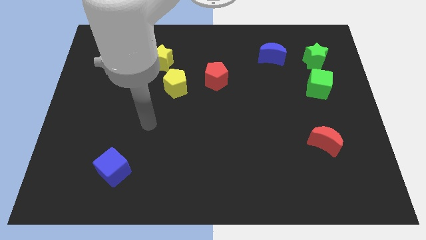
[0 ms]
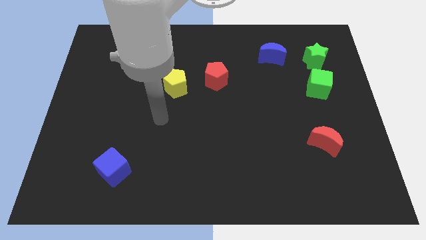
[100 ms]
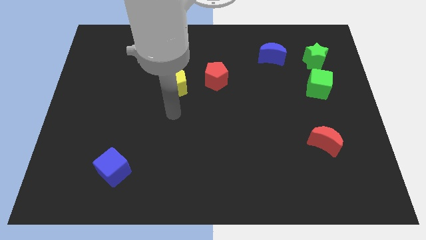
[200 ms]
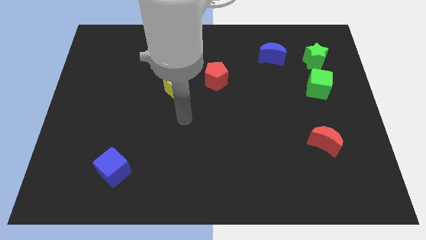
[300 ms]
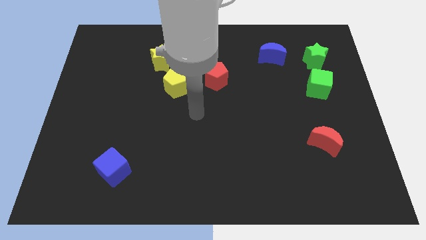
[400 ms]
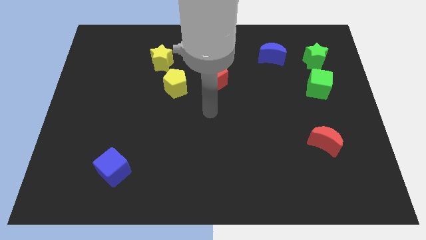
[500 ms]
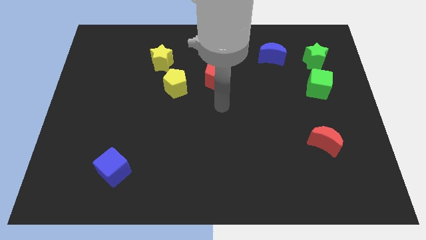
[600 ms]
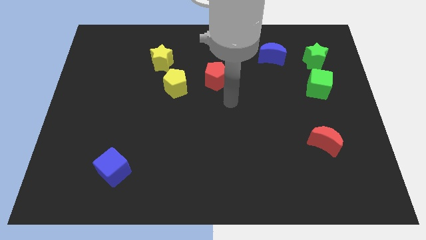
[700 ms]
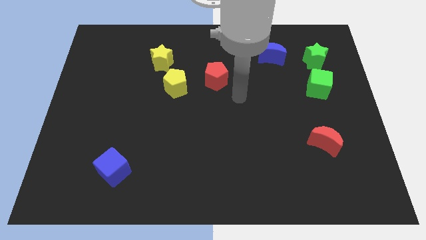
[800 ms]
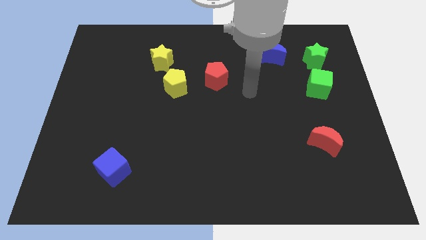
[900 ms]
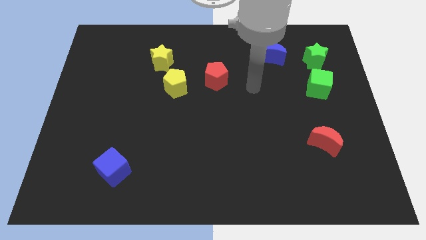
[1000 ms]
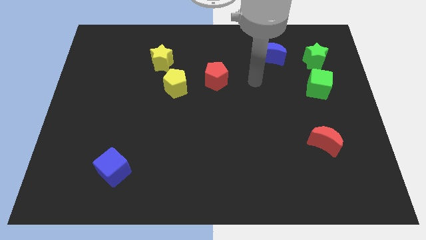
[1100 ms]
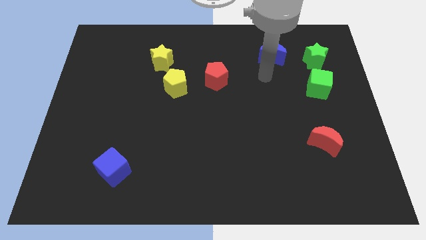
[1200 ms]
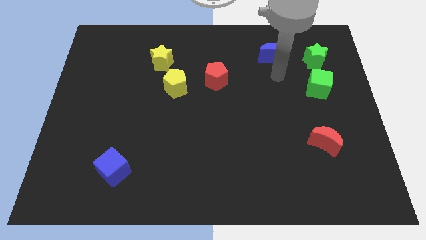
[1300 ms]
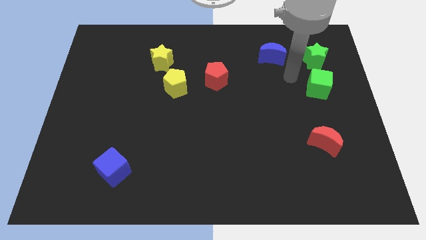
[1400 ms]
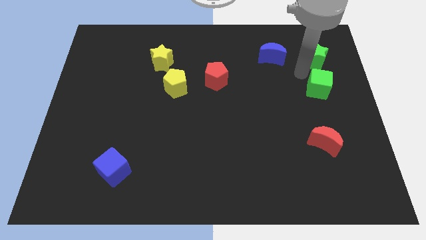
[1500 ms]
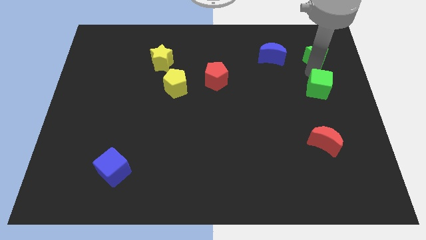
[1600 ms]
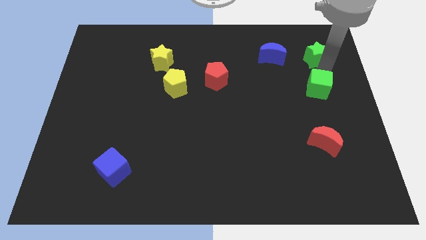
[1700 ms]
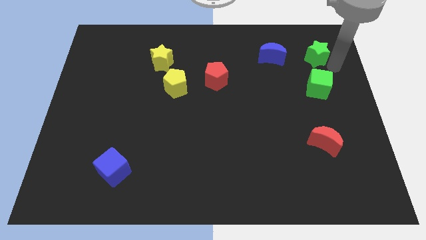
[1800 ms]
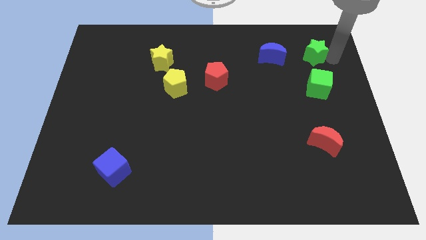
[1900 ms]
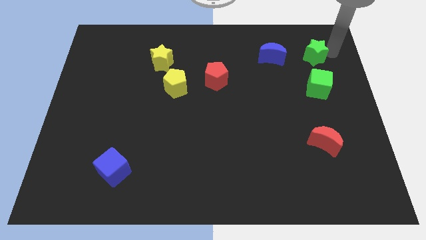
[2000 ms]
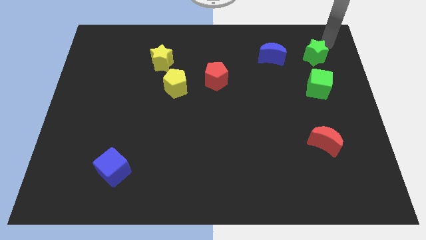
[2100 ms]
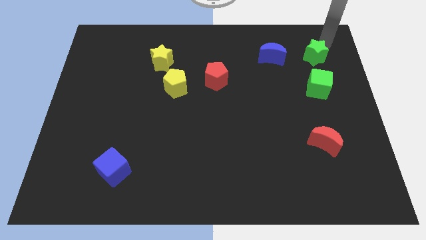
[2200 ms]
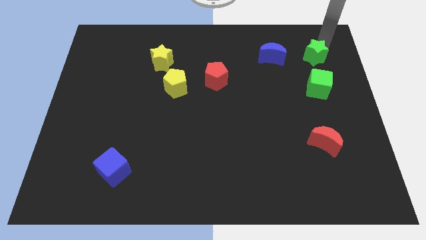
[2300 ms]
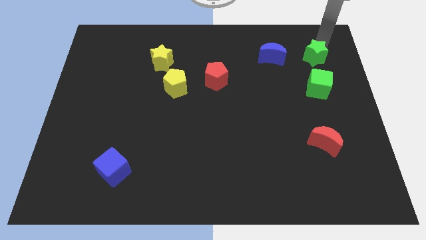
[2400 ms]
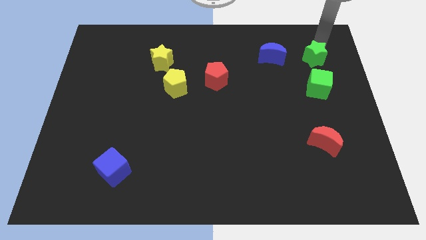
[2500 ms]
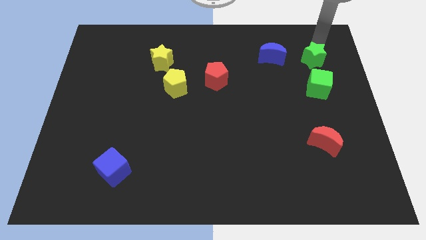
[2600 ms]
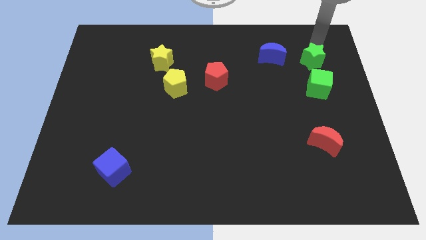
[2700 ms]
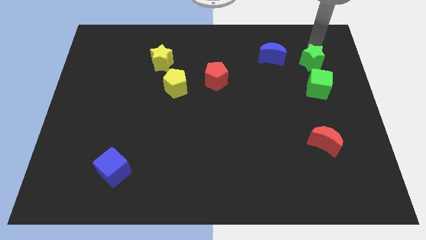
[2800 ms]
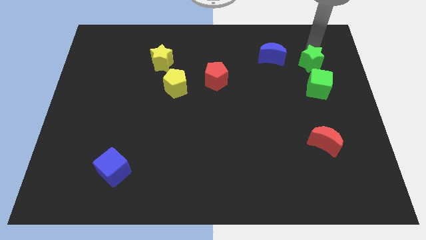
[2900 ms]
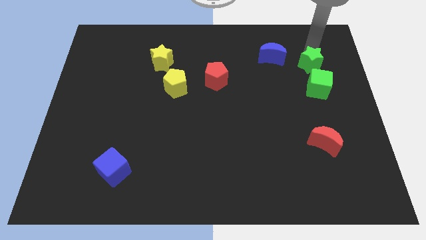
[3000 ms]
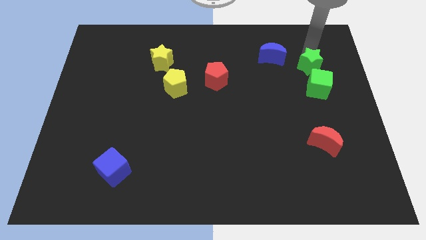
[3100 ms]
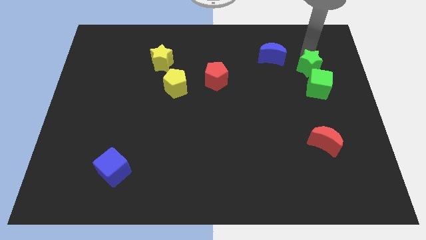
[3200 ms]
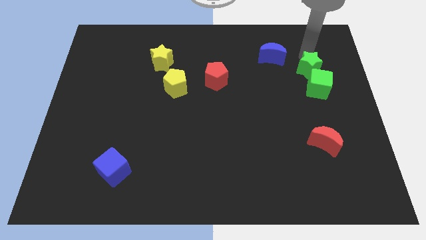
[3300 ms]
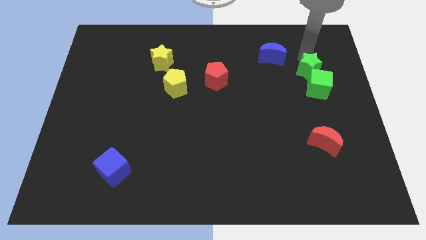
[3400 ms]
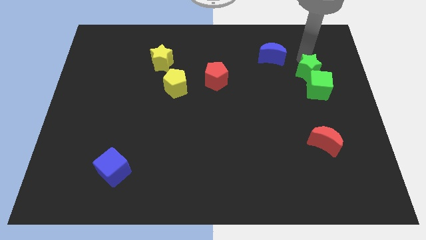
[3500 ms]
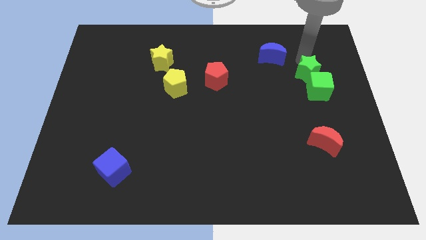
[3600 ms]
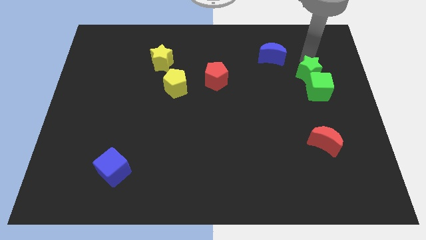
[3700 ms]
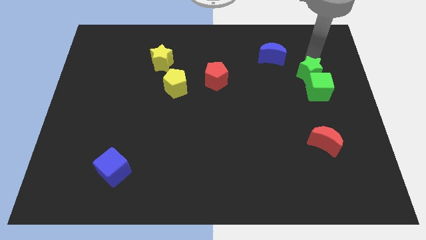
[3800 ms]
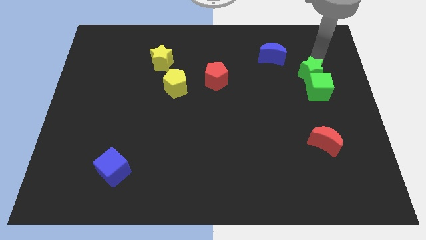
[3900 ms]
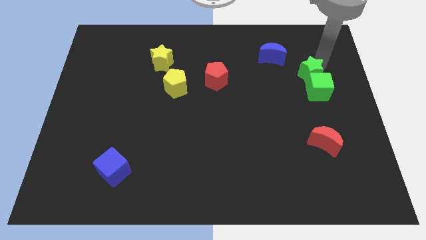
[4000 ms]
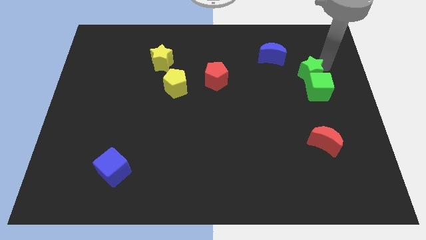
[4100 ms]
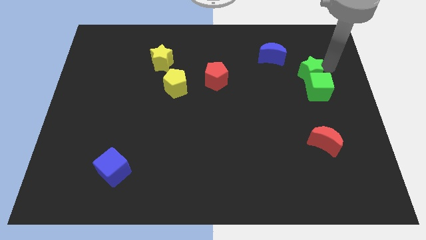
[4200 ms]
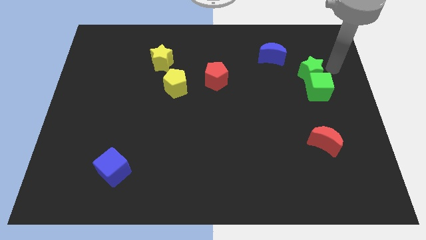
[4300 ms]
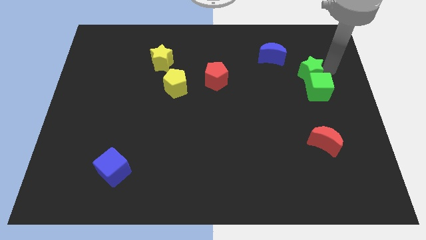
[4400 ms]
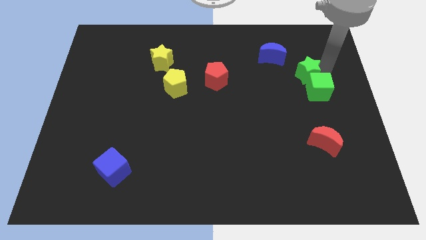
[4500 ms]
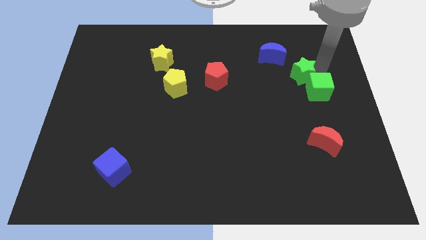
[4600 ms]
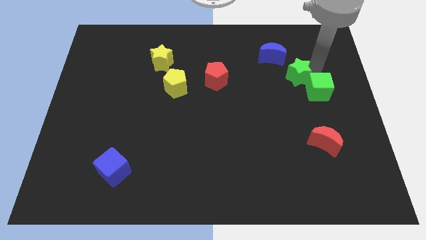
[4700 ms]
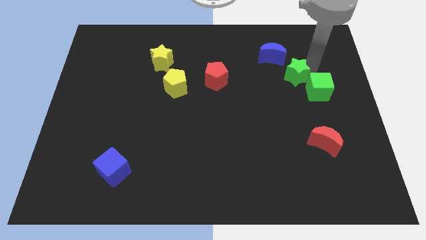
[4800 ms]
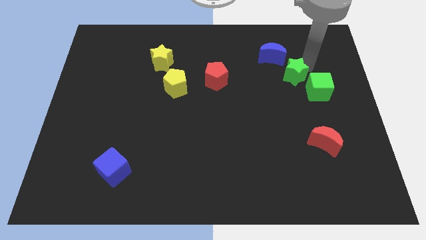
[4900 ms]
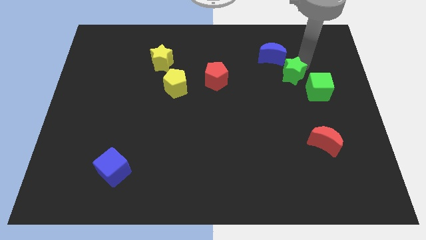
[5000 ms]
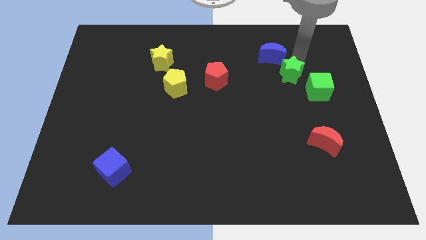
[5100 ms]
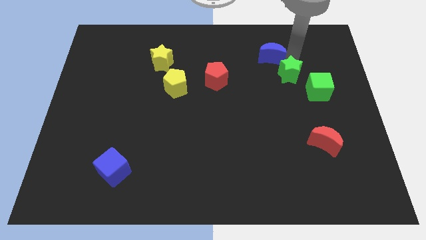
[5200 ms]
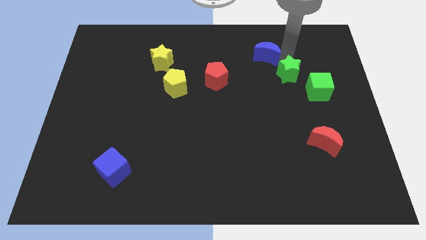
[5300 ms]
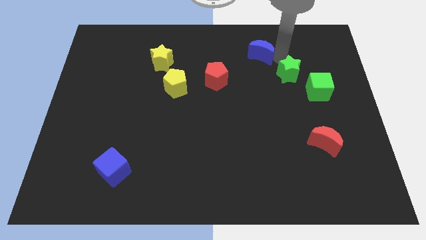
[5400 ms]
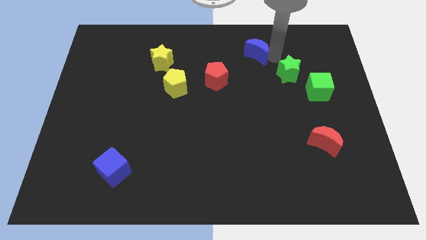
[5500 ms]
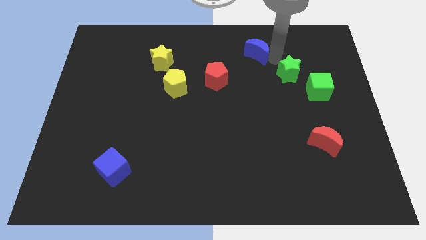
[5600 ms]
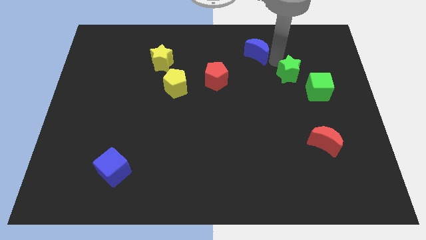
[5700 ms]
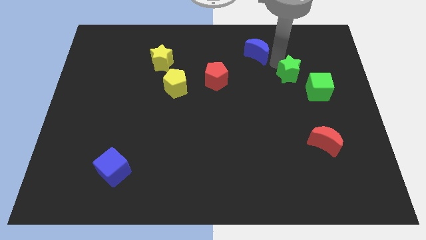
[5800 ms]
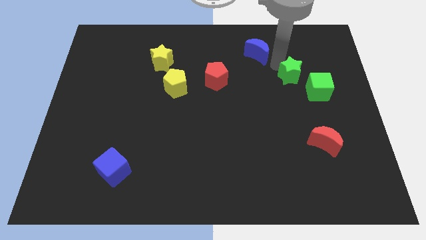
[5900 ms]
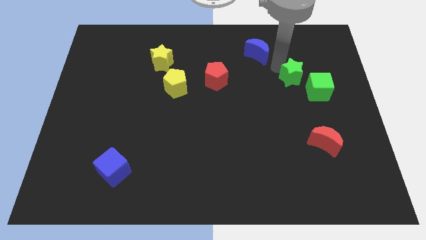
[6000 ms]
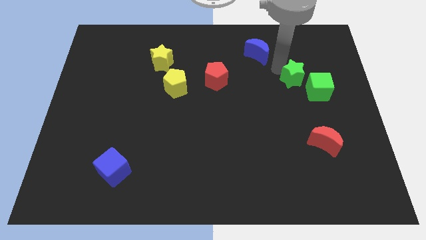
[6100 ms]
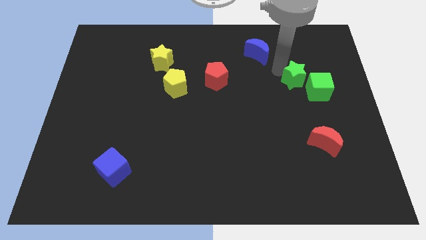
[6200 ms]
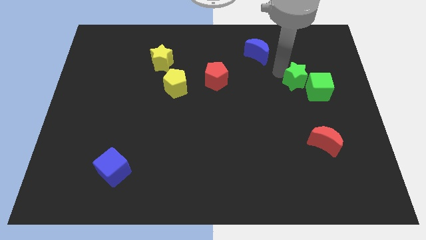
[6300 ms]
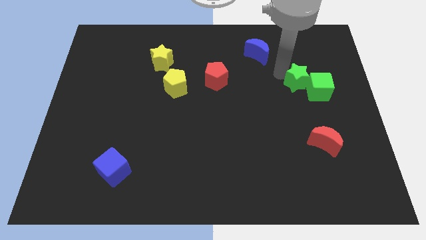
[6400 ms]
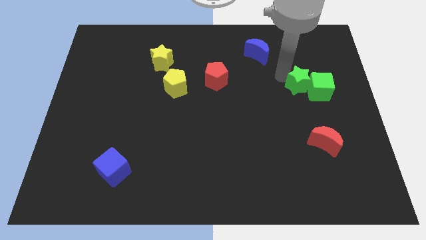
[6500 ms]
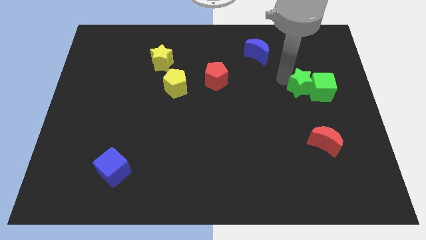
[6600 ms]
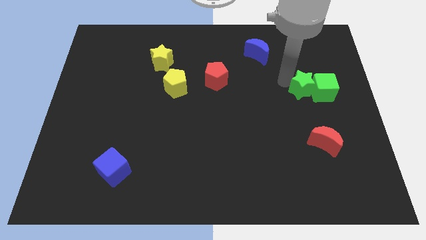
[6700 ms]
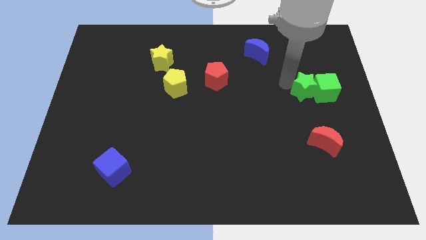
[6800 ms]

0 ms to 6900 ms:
move the green star to the top of the red moon
